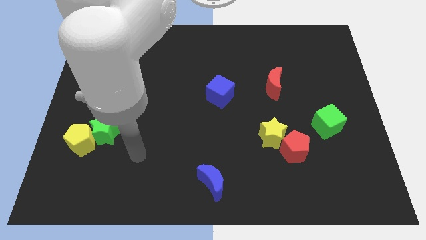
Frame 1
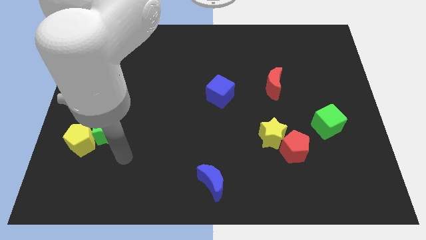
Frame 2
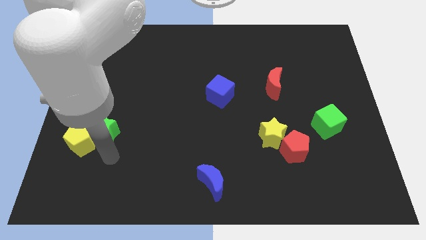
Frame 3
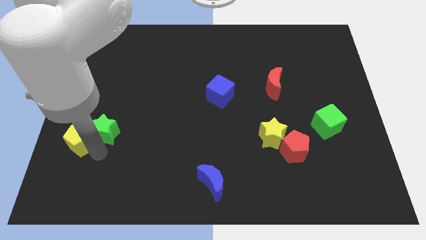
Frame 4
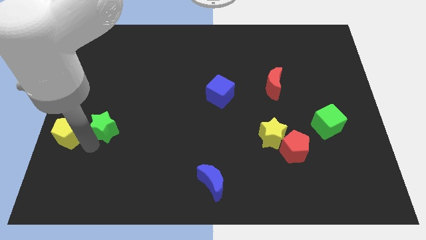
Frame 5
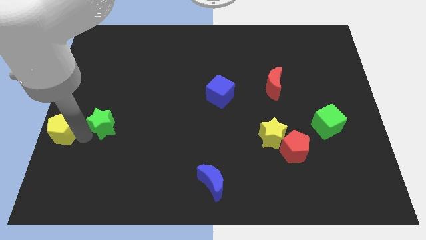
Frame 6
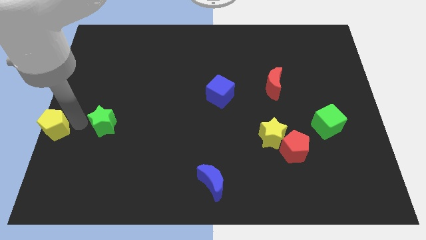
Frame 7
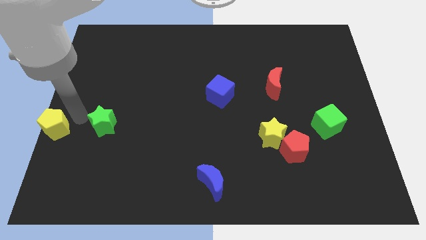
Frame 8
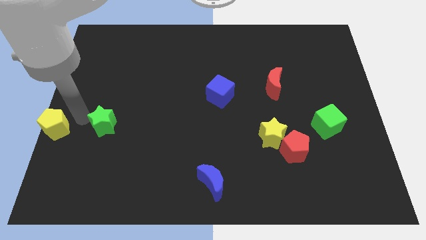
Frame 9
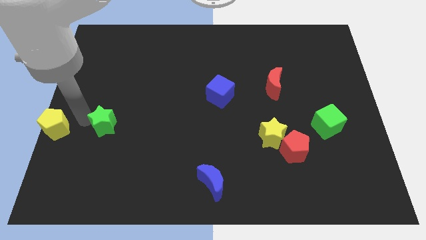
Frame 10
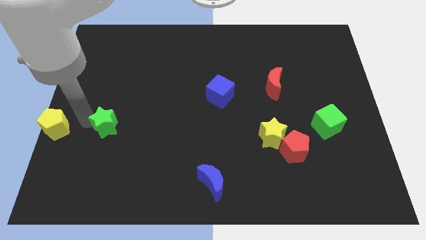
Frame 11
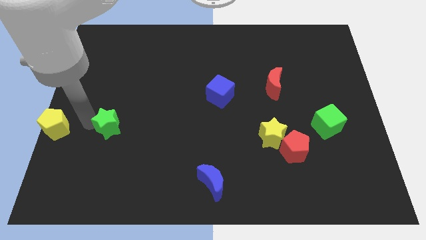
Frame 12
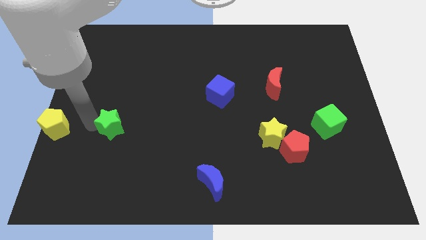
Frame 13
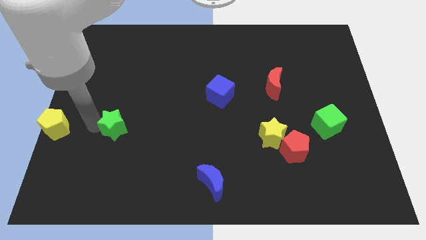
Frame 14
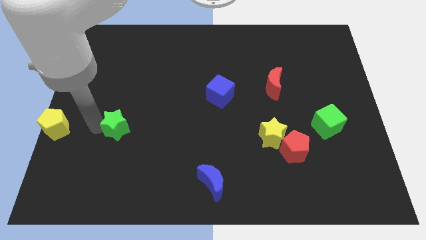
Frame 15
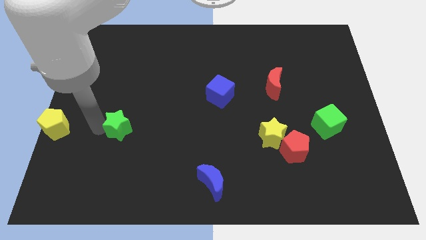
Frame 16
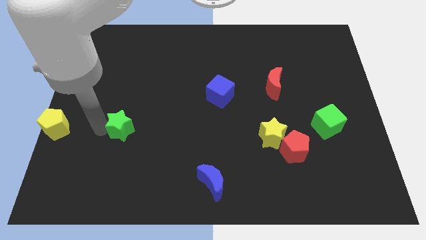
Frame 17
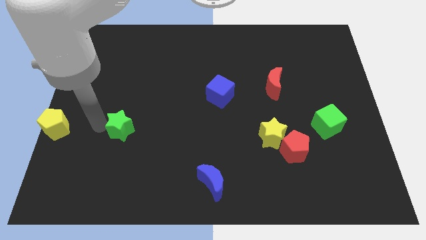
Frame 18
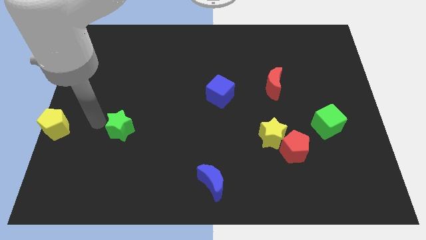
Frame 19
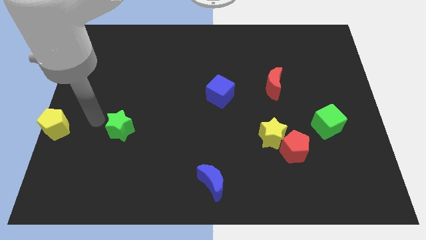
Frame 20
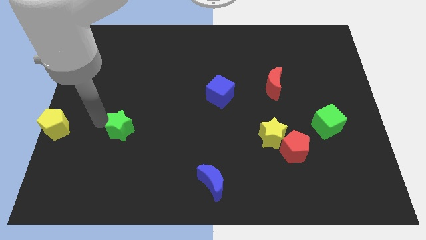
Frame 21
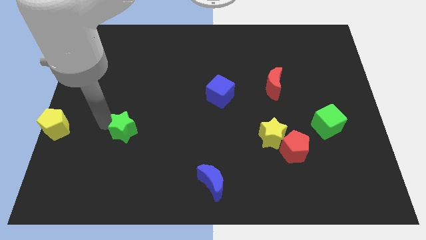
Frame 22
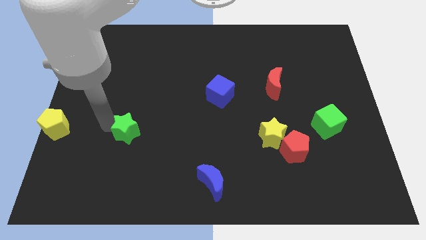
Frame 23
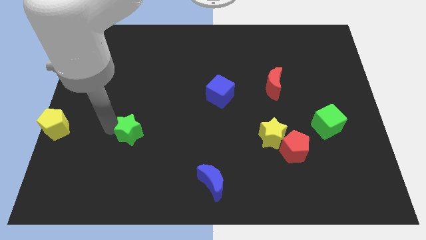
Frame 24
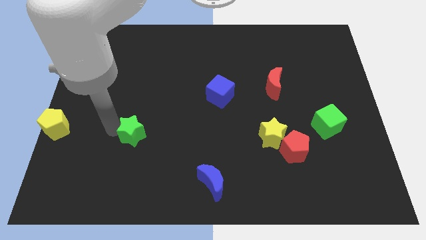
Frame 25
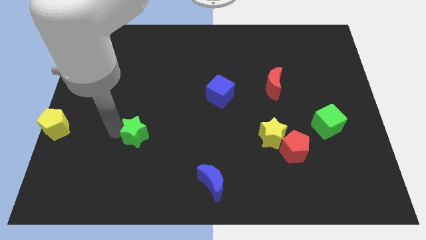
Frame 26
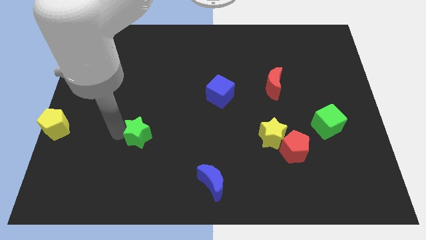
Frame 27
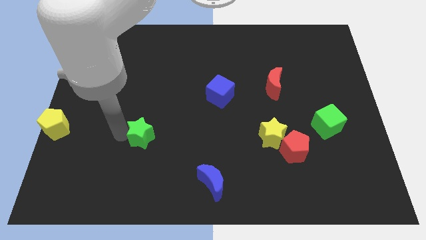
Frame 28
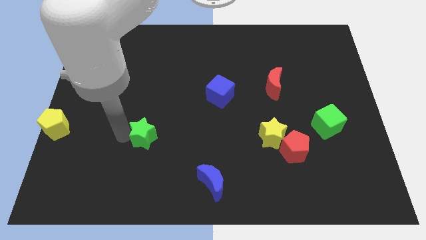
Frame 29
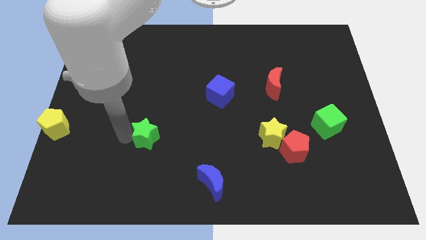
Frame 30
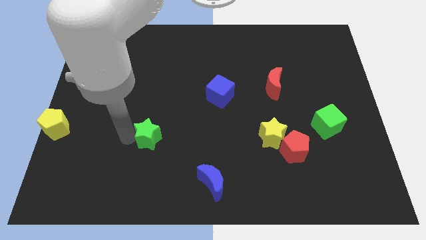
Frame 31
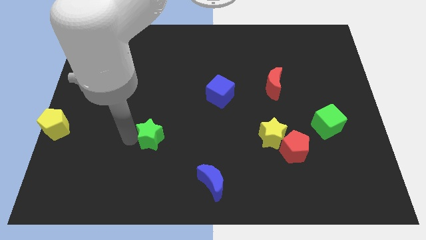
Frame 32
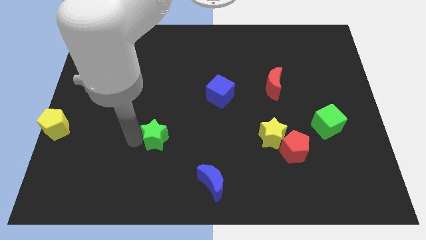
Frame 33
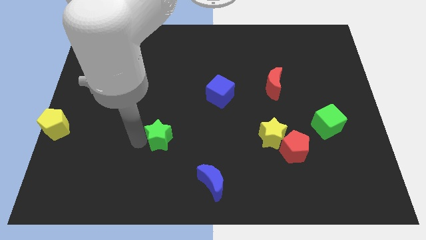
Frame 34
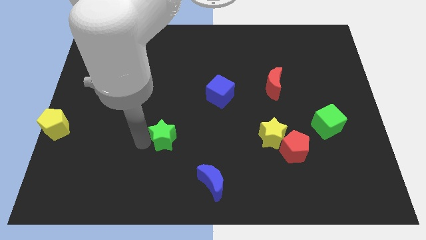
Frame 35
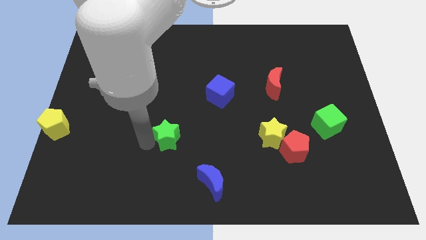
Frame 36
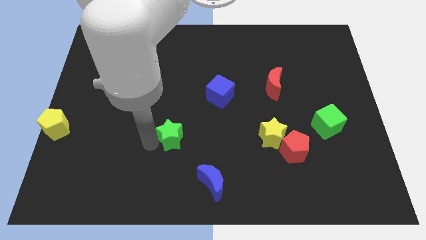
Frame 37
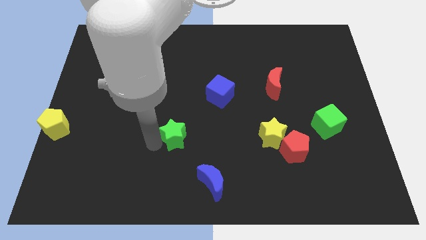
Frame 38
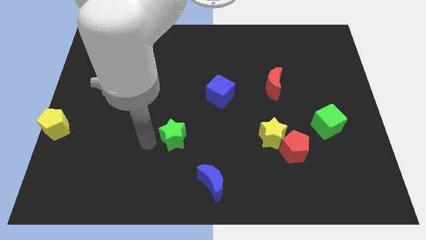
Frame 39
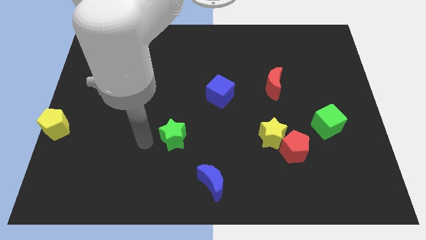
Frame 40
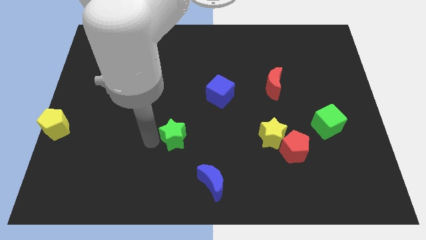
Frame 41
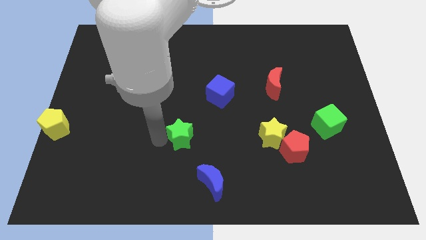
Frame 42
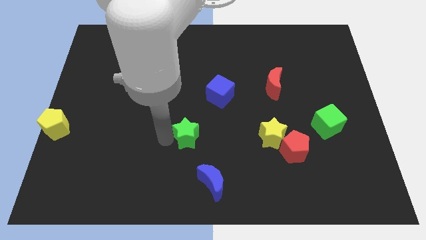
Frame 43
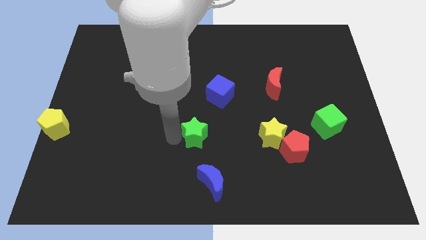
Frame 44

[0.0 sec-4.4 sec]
slide the green star right

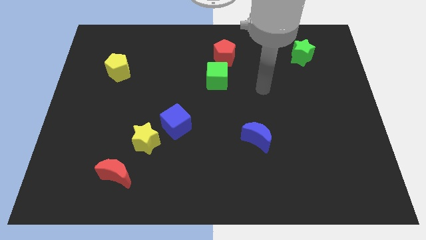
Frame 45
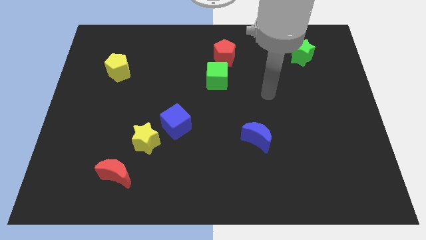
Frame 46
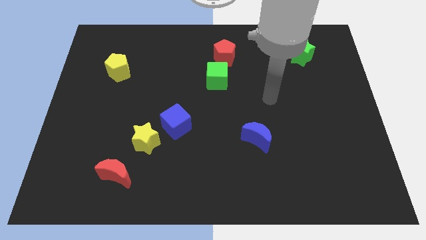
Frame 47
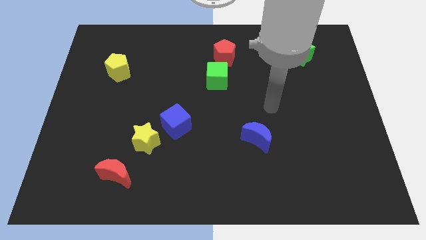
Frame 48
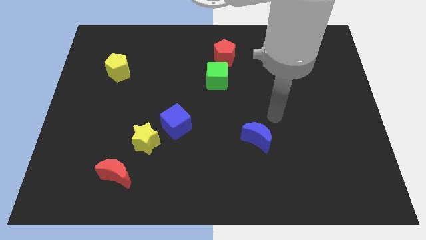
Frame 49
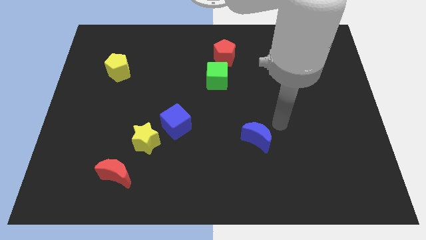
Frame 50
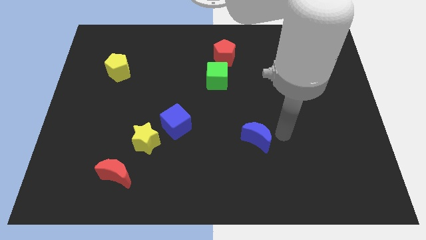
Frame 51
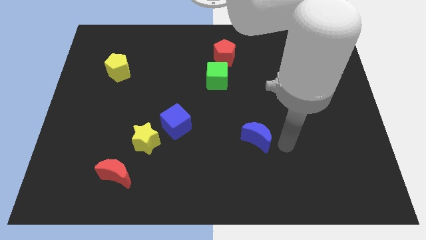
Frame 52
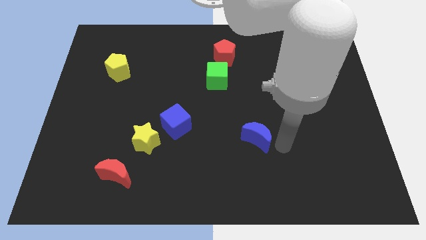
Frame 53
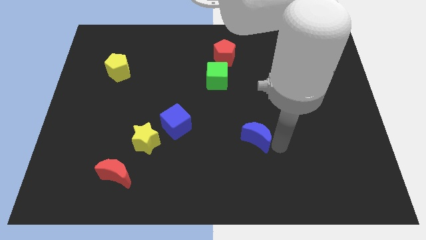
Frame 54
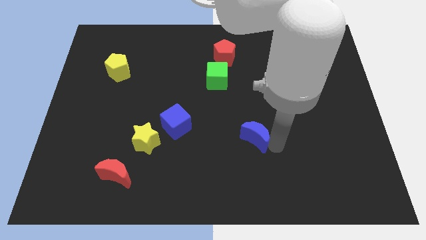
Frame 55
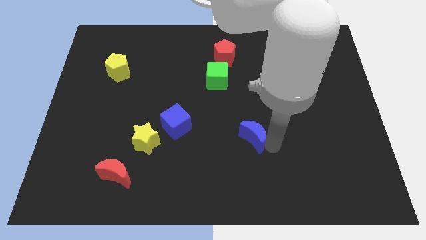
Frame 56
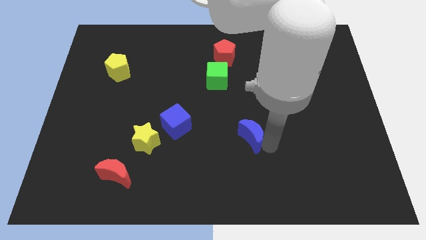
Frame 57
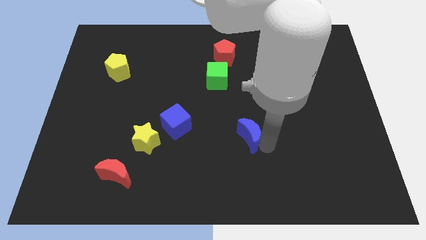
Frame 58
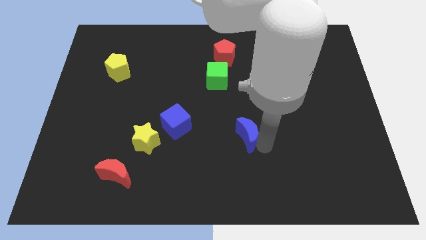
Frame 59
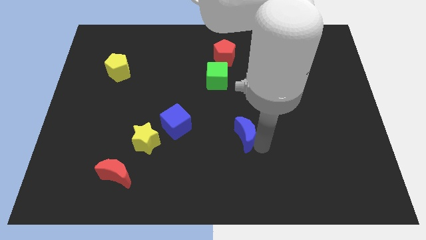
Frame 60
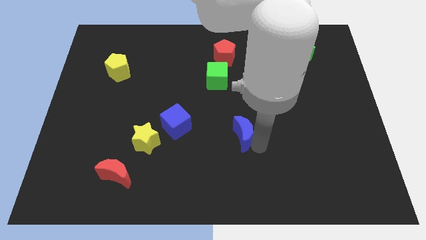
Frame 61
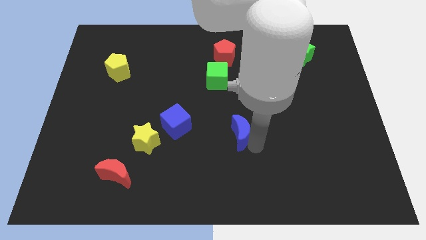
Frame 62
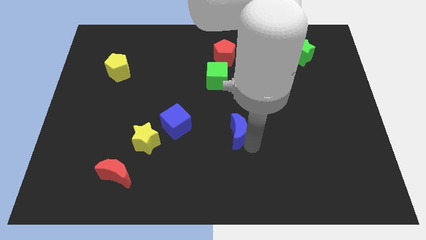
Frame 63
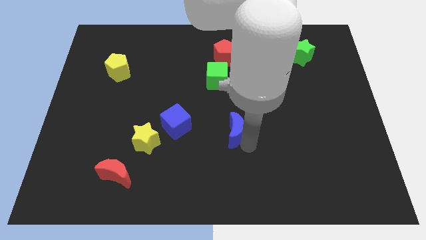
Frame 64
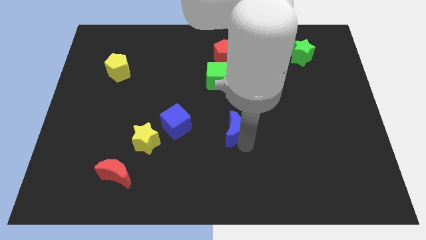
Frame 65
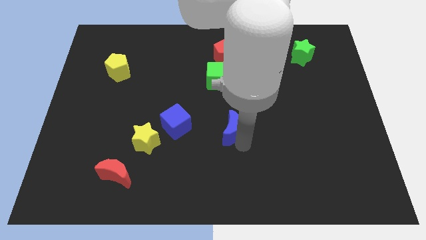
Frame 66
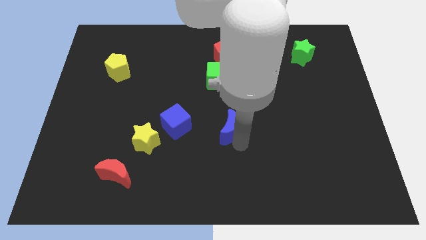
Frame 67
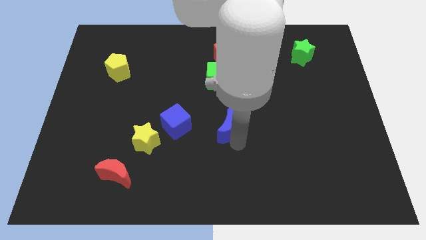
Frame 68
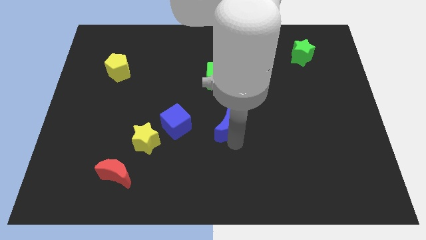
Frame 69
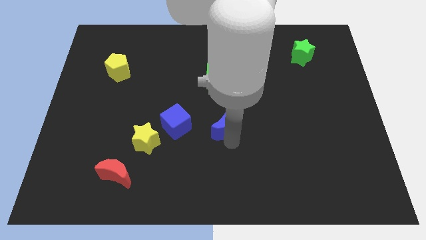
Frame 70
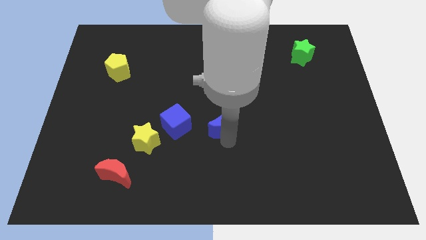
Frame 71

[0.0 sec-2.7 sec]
slightly push the blue moon up and then to the left

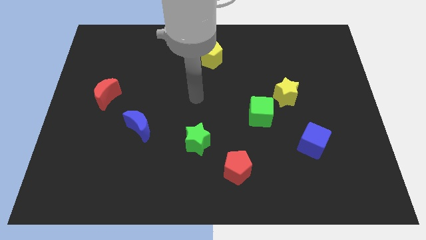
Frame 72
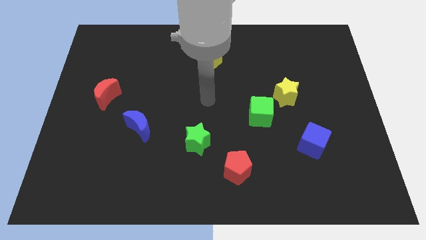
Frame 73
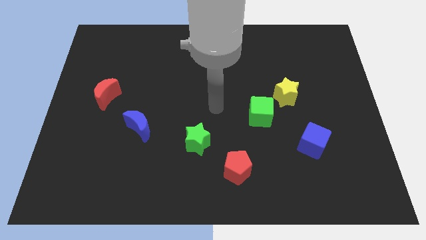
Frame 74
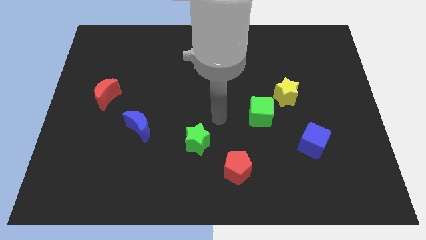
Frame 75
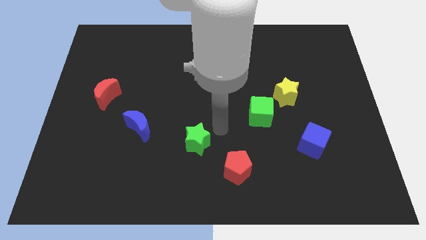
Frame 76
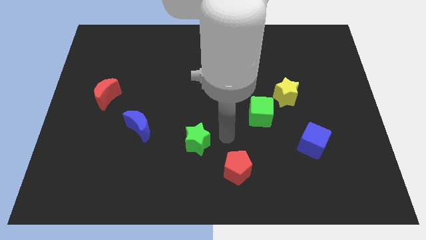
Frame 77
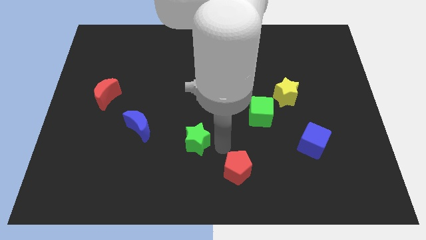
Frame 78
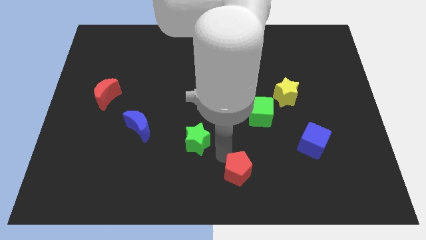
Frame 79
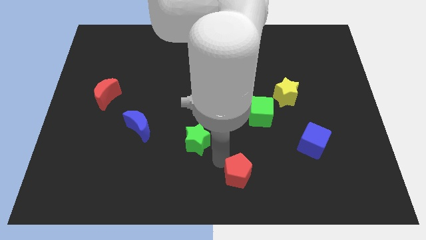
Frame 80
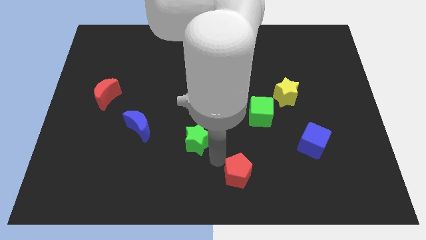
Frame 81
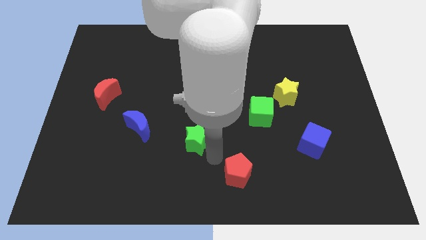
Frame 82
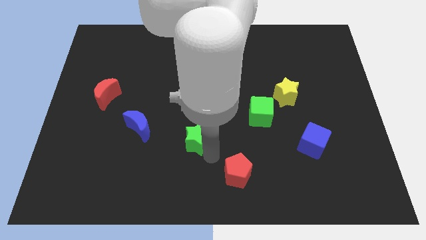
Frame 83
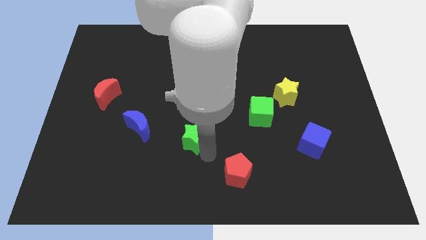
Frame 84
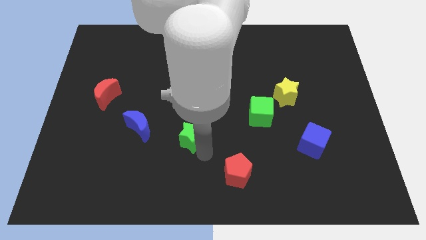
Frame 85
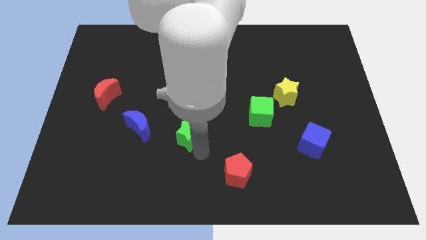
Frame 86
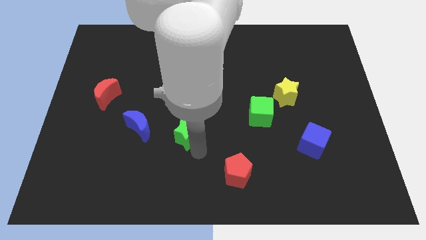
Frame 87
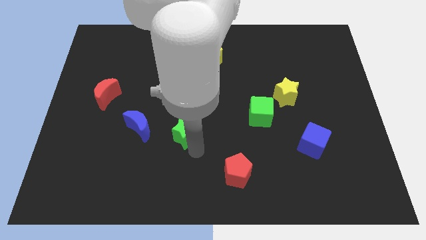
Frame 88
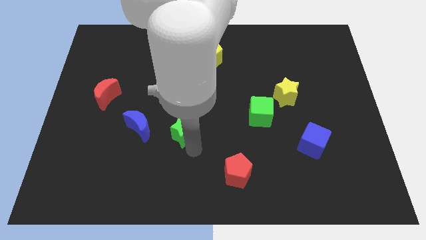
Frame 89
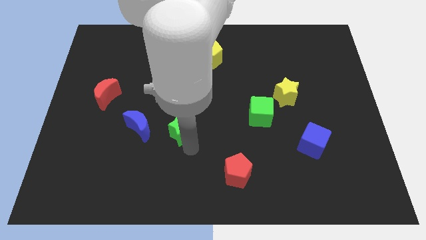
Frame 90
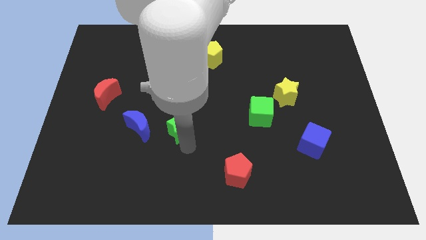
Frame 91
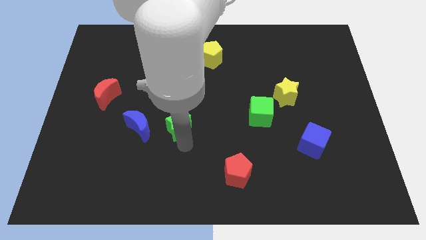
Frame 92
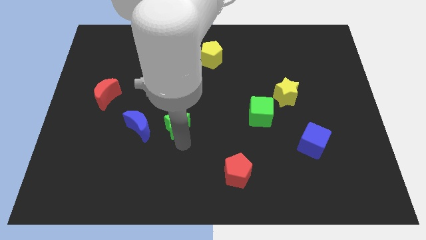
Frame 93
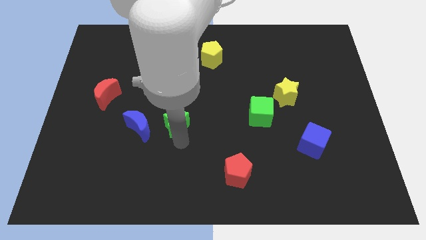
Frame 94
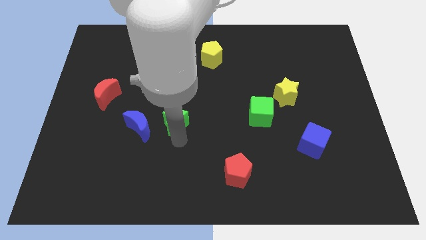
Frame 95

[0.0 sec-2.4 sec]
push the green star somewhat upwards and to the left diagonally
